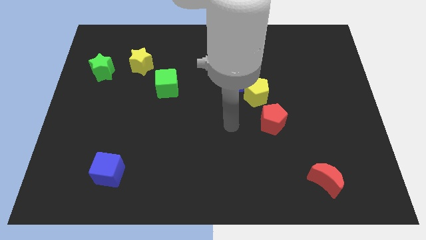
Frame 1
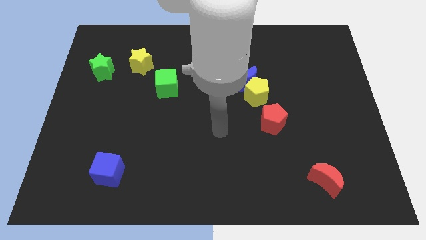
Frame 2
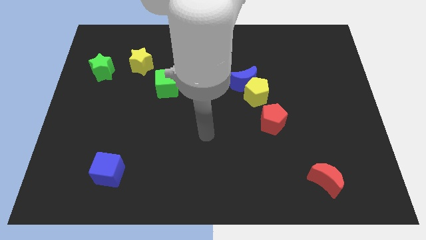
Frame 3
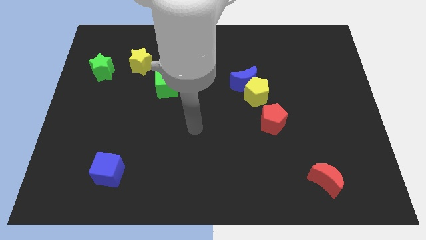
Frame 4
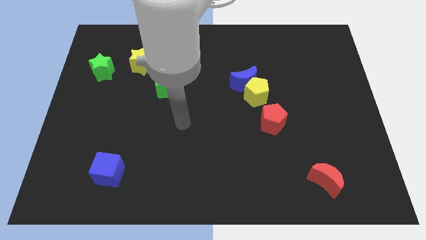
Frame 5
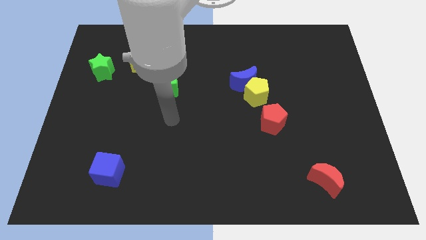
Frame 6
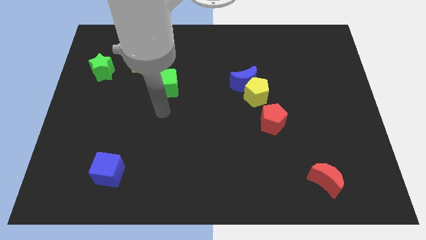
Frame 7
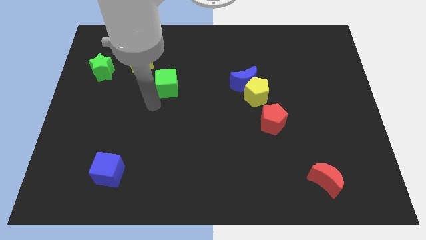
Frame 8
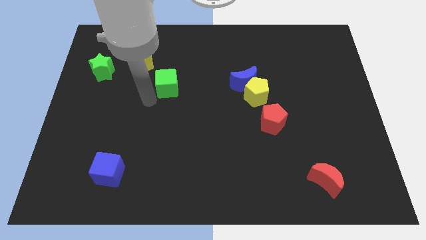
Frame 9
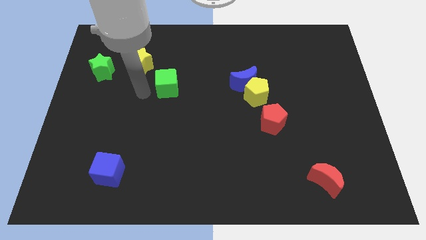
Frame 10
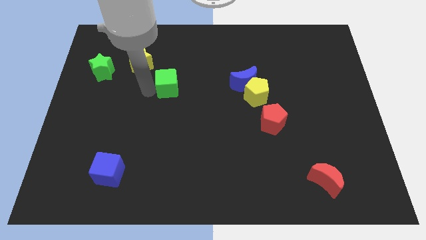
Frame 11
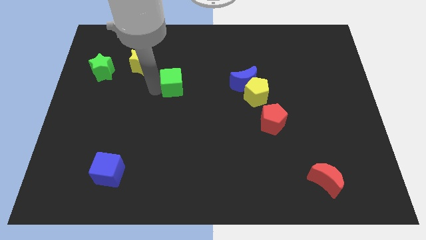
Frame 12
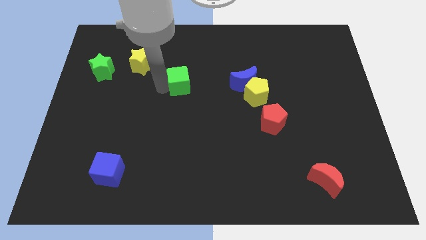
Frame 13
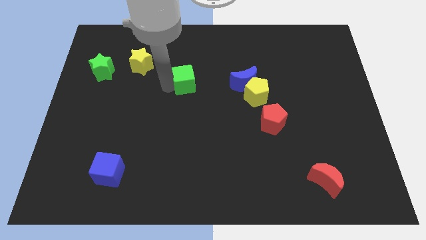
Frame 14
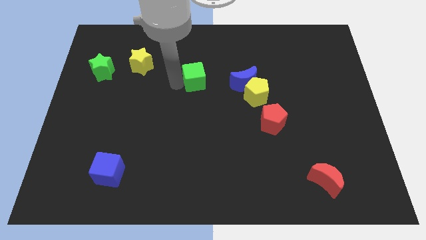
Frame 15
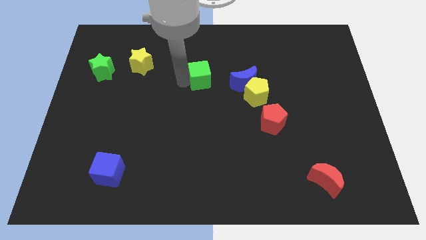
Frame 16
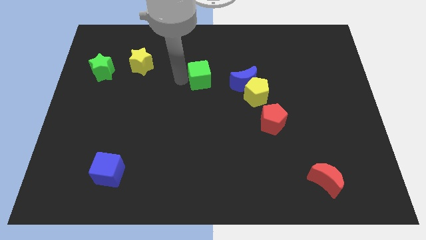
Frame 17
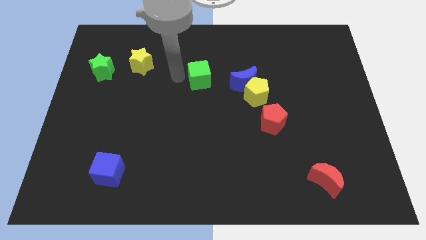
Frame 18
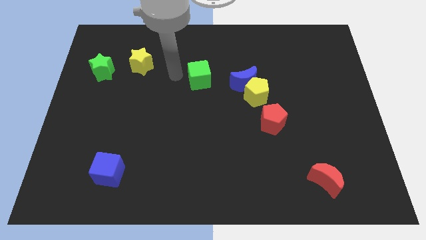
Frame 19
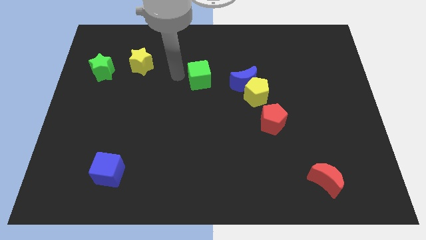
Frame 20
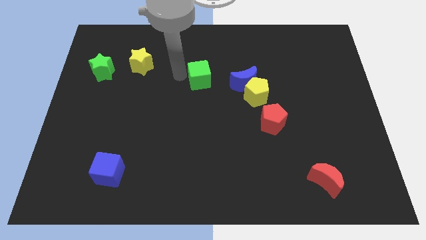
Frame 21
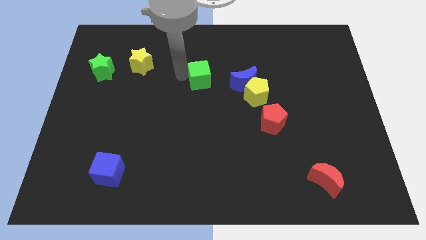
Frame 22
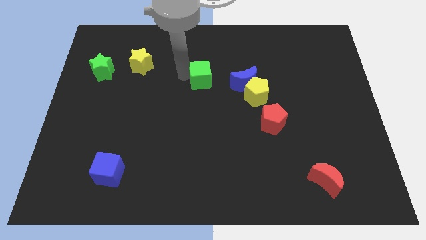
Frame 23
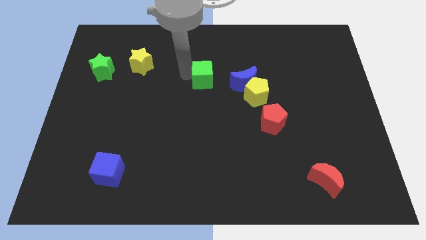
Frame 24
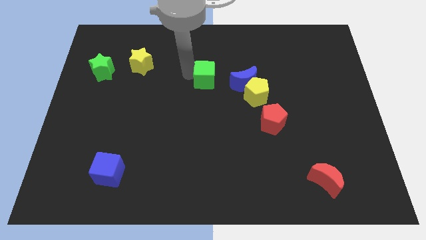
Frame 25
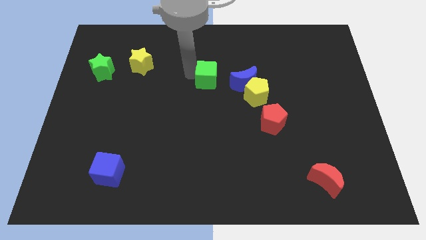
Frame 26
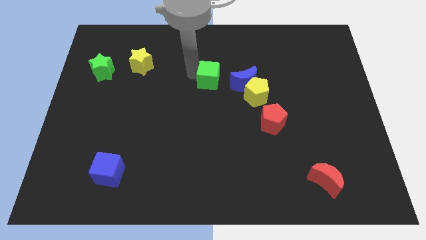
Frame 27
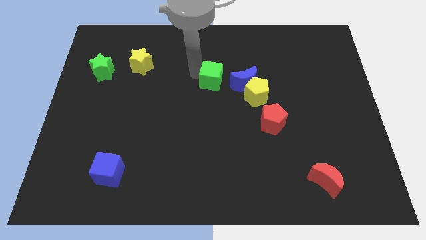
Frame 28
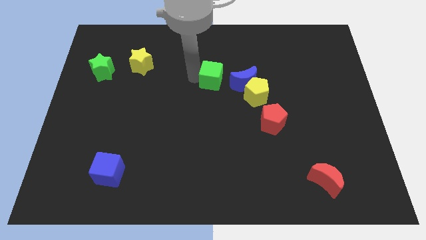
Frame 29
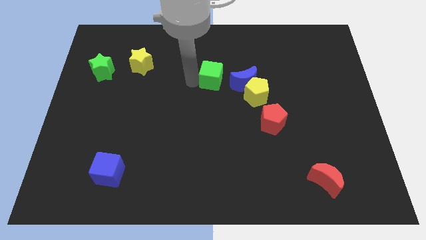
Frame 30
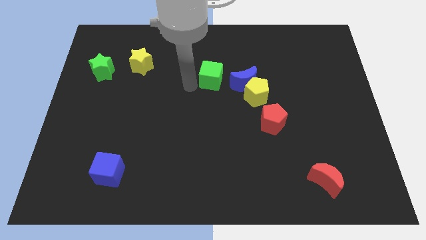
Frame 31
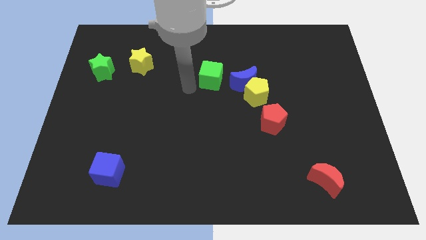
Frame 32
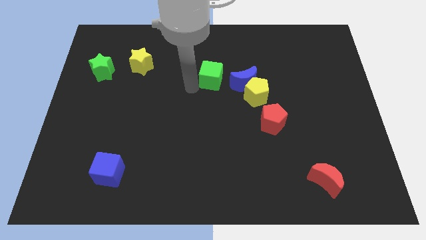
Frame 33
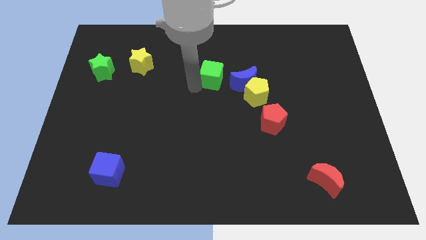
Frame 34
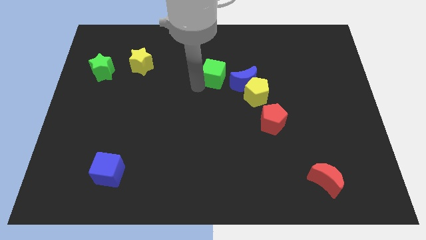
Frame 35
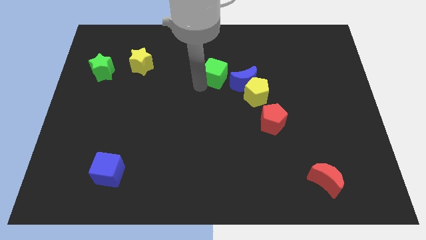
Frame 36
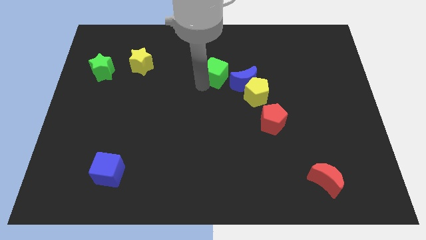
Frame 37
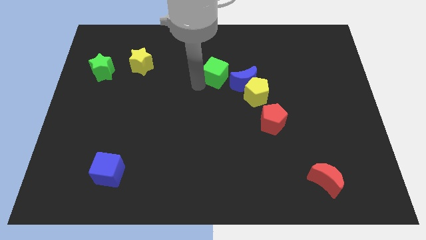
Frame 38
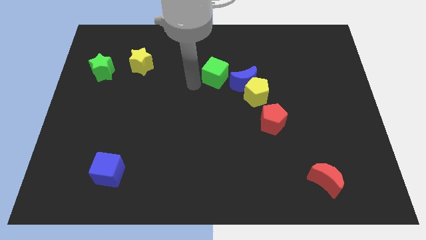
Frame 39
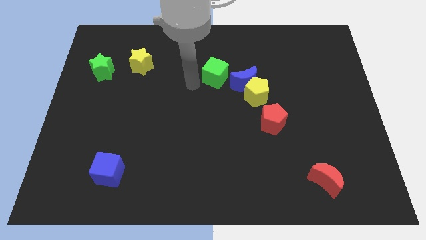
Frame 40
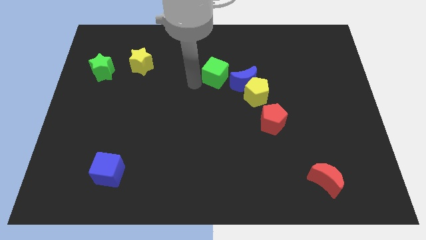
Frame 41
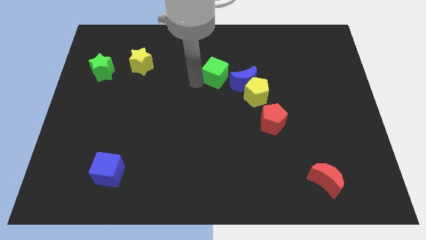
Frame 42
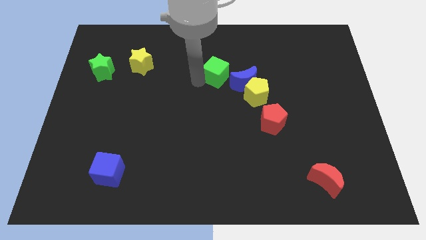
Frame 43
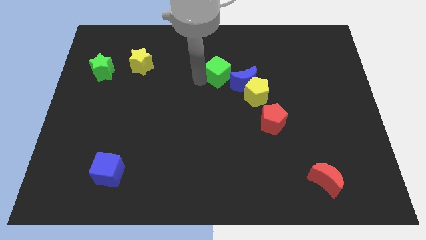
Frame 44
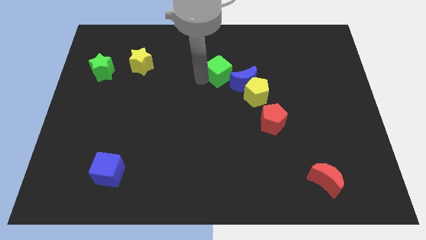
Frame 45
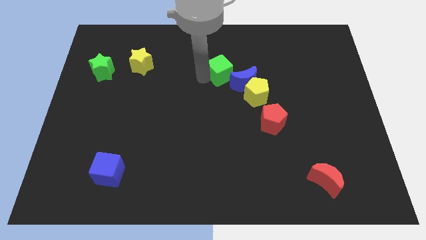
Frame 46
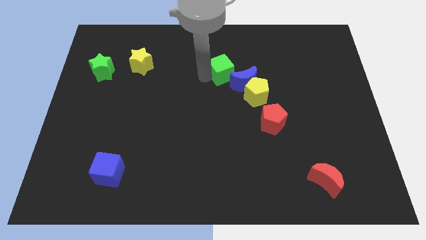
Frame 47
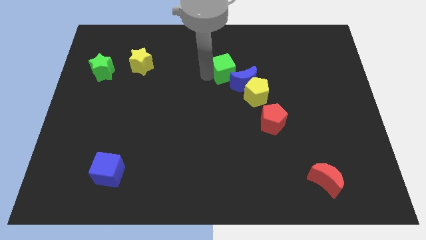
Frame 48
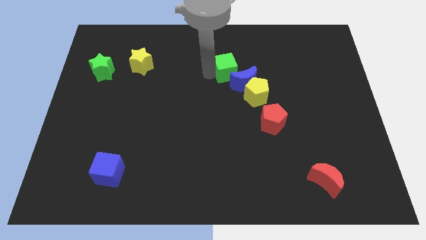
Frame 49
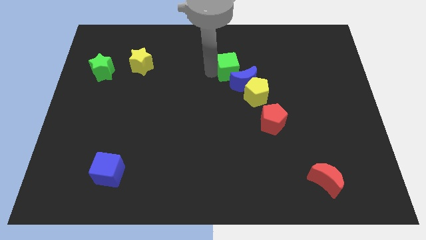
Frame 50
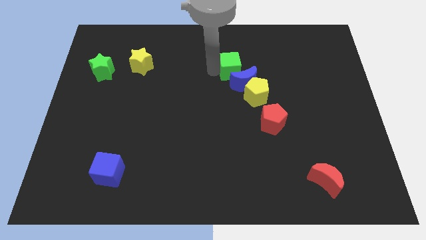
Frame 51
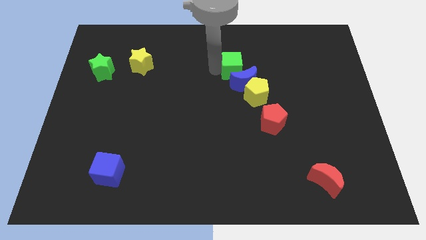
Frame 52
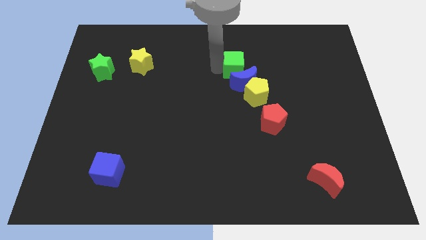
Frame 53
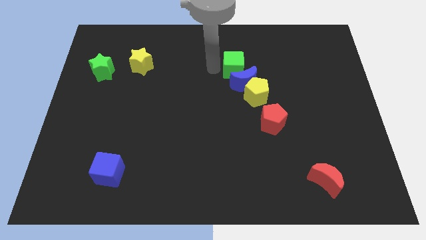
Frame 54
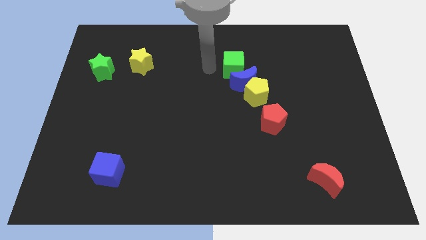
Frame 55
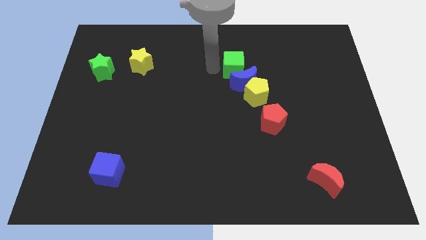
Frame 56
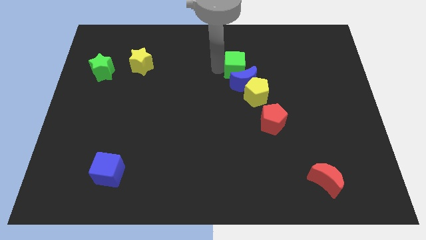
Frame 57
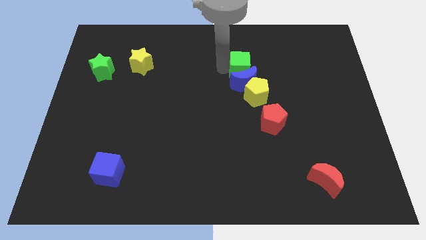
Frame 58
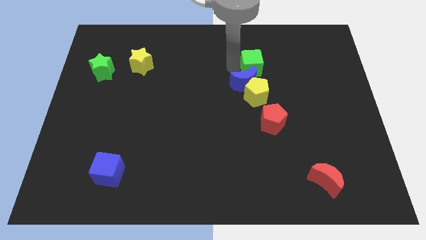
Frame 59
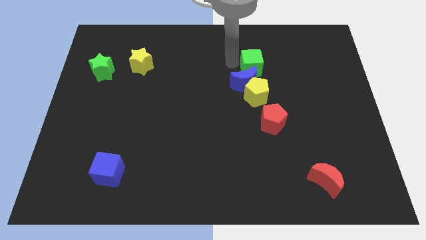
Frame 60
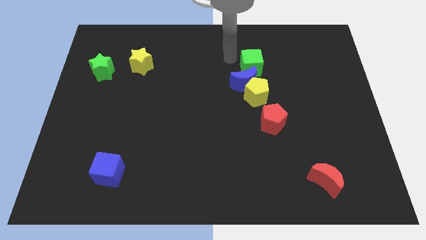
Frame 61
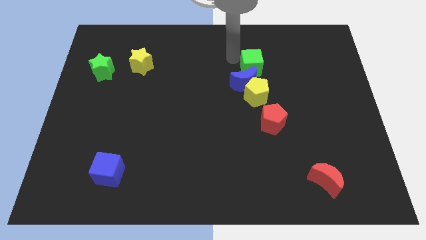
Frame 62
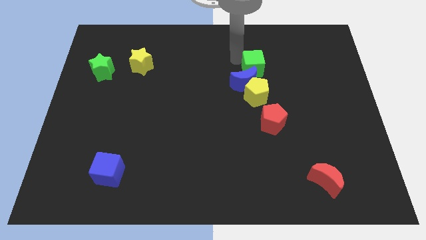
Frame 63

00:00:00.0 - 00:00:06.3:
push the green cube right

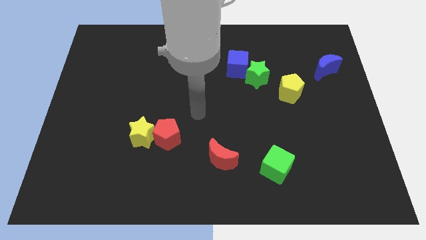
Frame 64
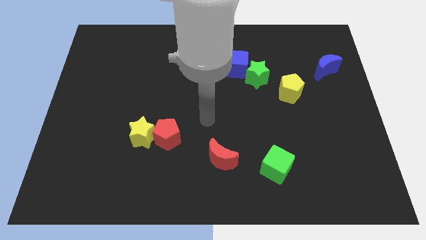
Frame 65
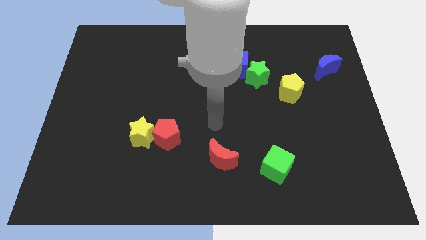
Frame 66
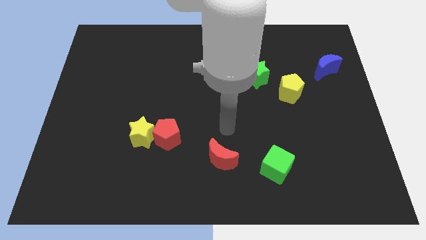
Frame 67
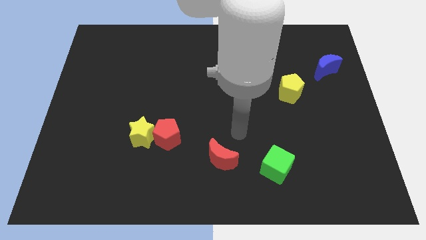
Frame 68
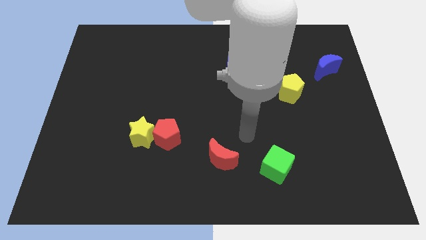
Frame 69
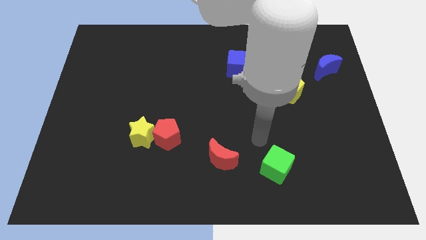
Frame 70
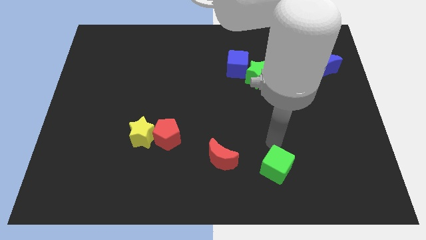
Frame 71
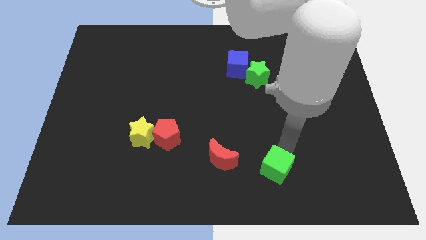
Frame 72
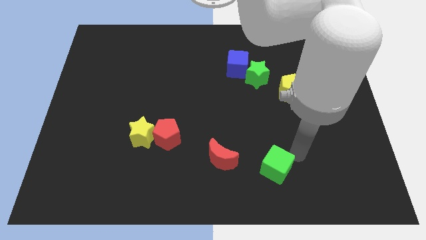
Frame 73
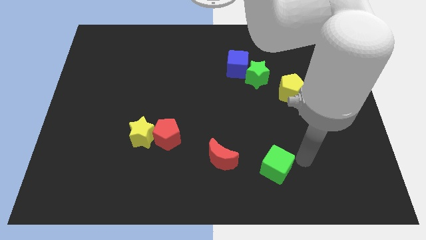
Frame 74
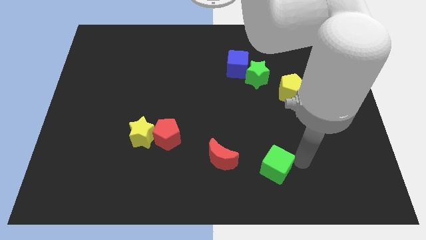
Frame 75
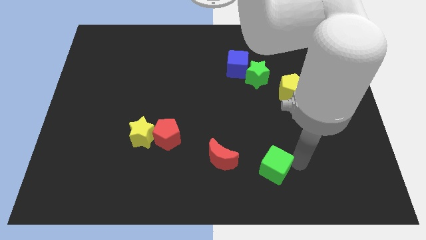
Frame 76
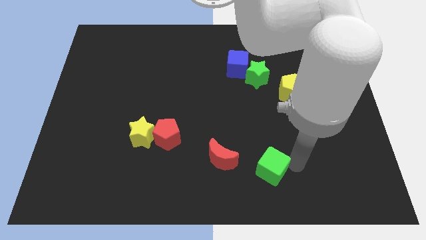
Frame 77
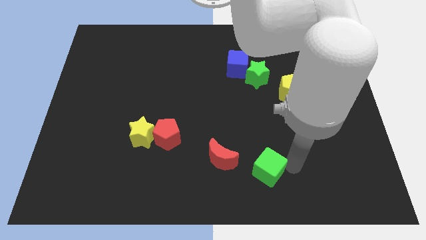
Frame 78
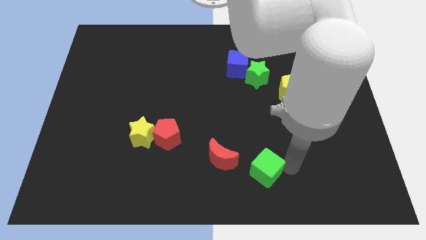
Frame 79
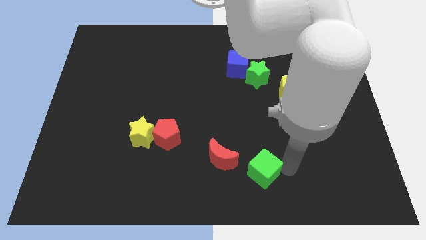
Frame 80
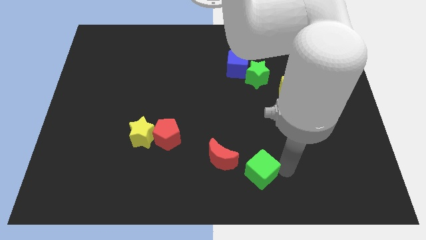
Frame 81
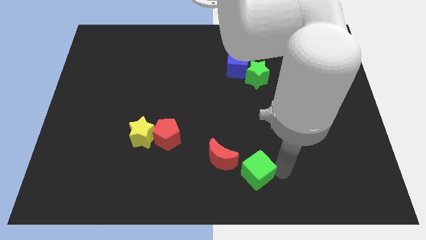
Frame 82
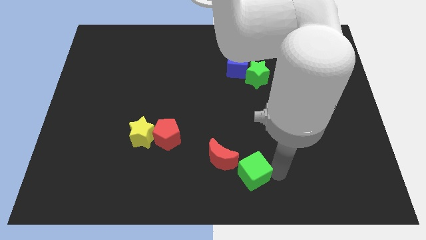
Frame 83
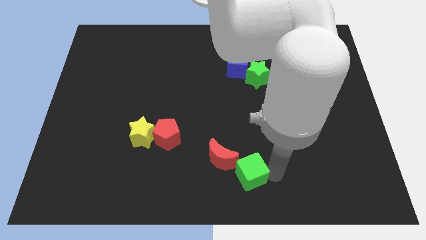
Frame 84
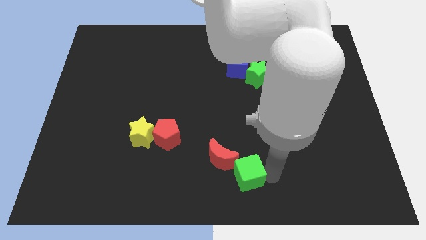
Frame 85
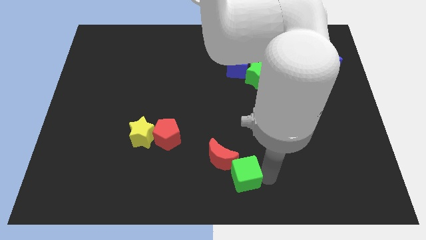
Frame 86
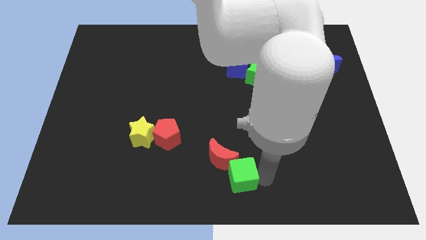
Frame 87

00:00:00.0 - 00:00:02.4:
push the green cube a little bit to the left
